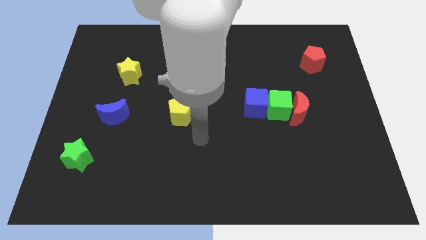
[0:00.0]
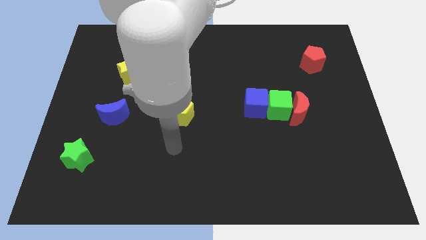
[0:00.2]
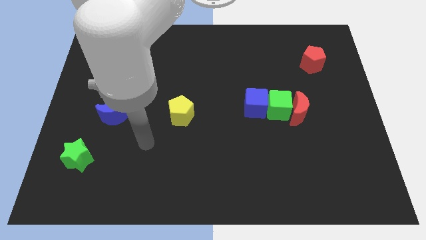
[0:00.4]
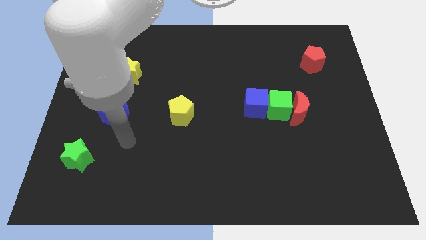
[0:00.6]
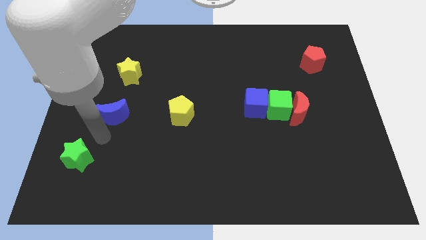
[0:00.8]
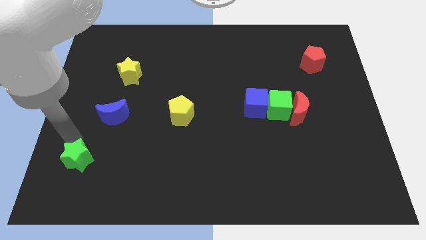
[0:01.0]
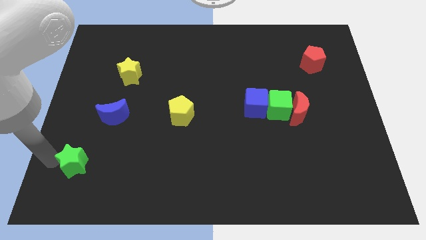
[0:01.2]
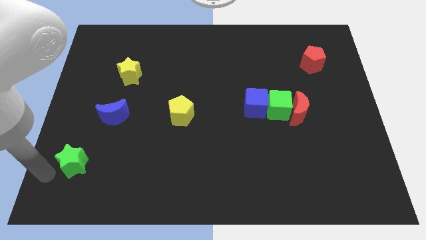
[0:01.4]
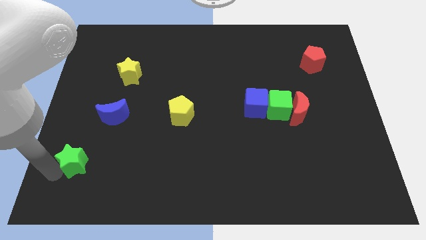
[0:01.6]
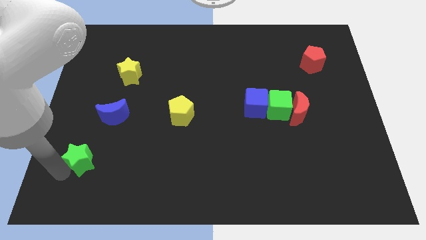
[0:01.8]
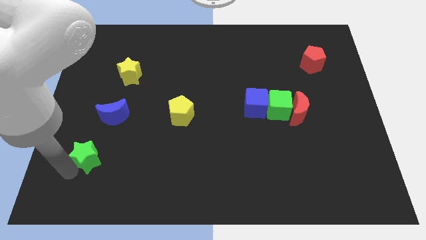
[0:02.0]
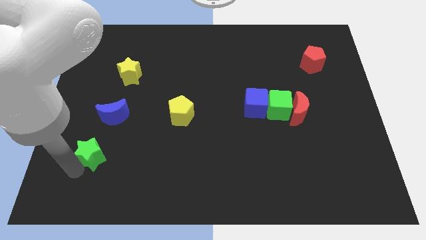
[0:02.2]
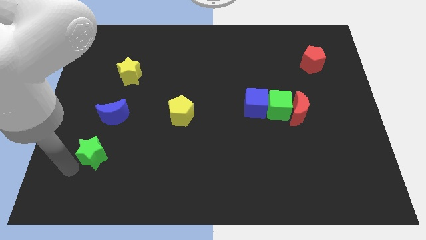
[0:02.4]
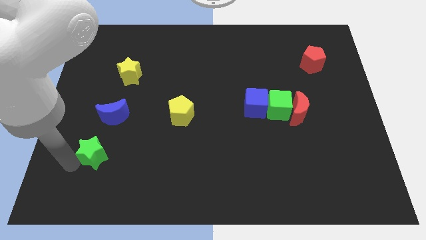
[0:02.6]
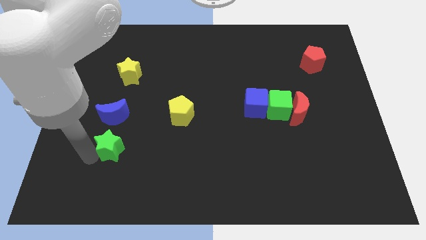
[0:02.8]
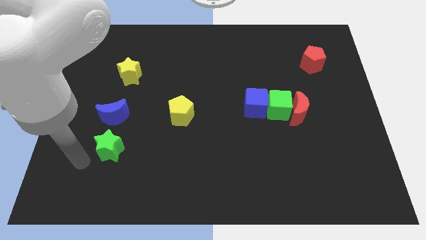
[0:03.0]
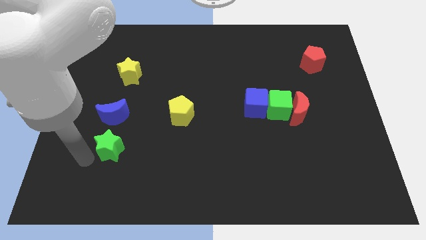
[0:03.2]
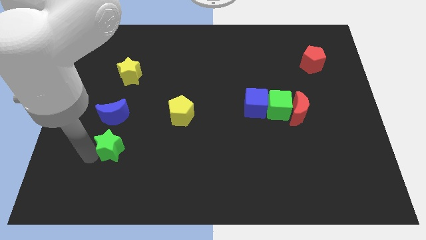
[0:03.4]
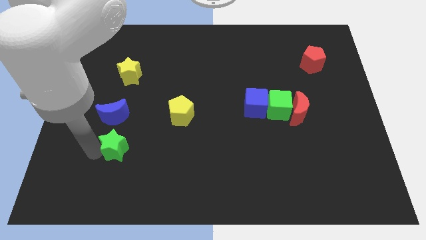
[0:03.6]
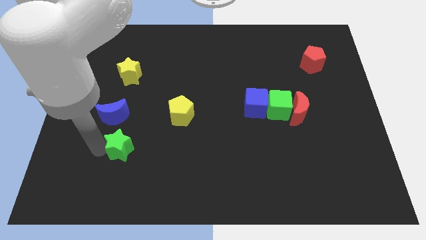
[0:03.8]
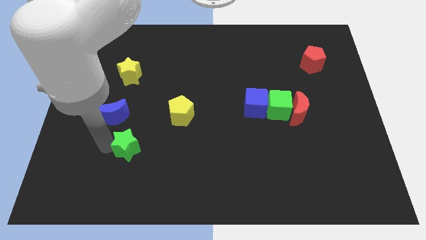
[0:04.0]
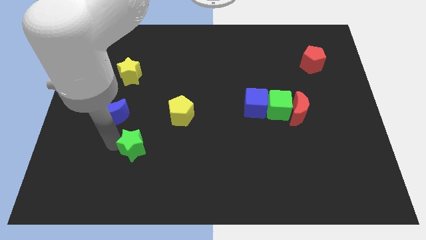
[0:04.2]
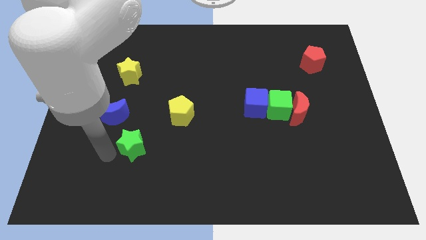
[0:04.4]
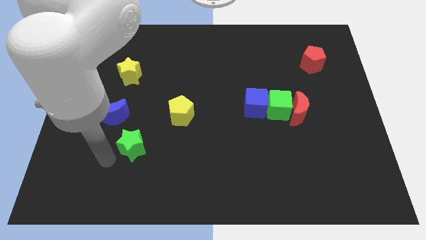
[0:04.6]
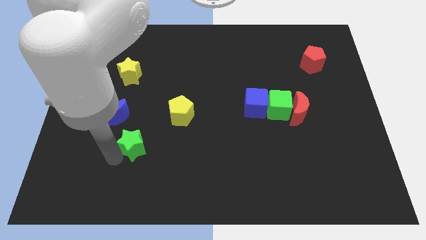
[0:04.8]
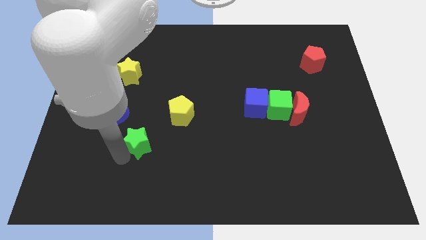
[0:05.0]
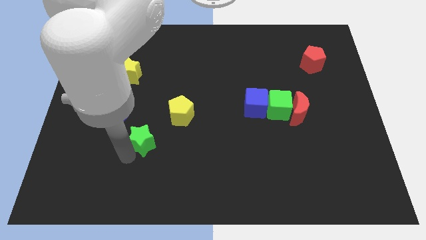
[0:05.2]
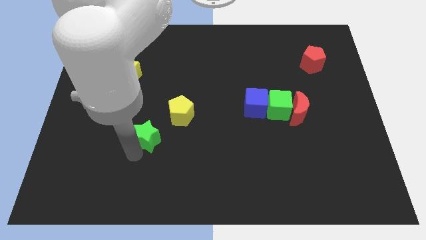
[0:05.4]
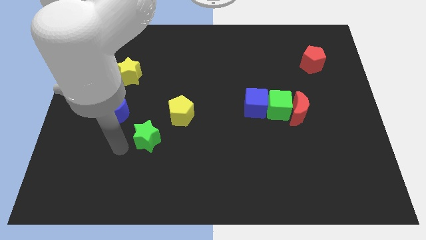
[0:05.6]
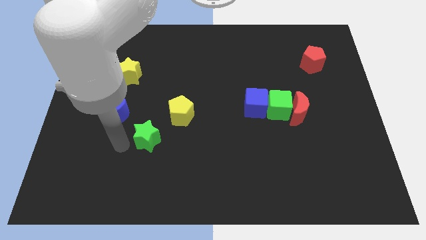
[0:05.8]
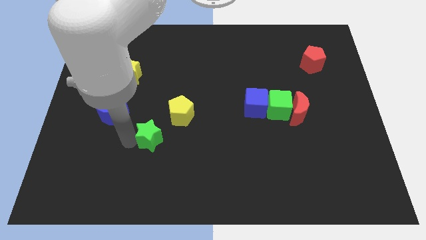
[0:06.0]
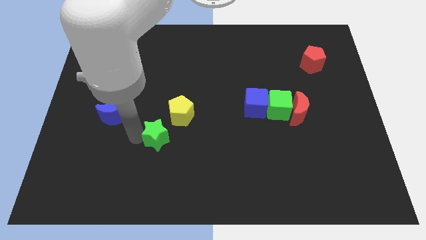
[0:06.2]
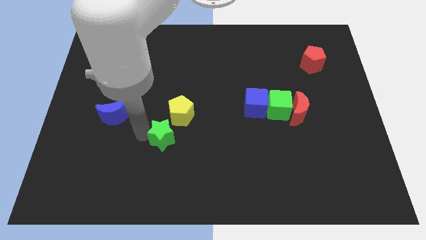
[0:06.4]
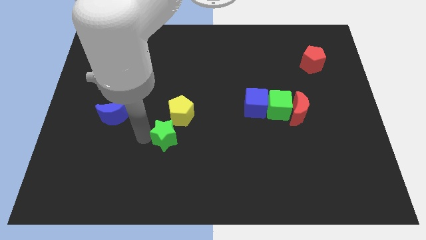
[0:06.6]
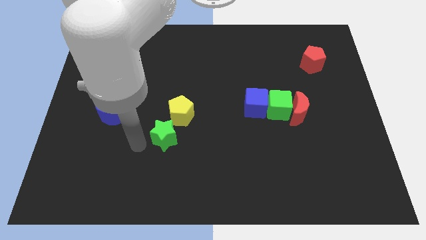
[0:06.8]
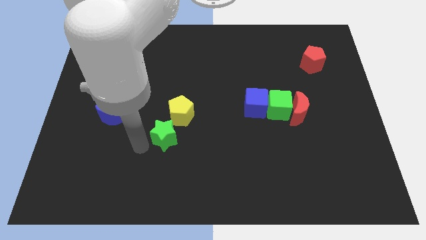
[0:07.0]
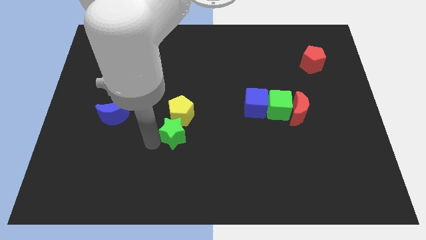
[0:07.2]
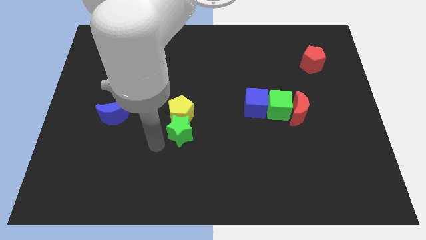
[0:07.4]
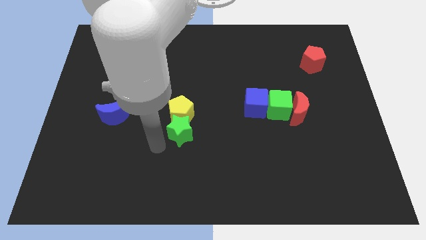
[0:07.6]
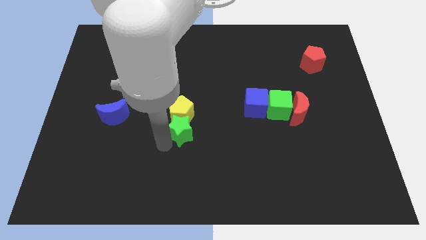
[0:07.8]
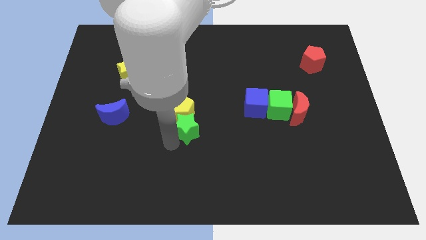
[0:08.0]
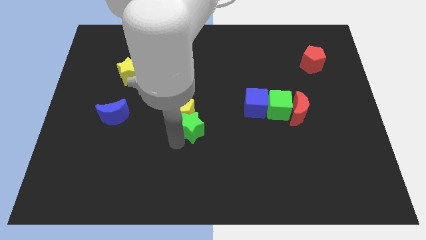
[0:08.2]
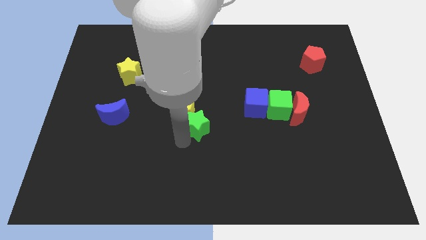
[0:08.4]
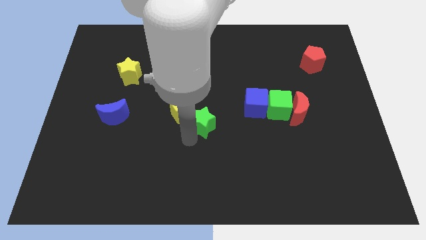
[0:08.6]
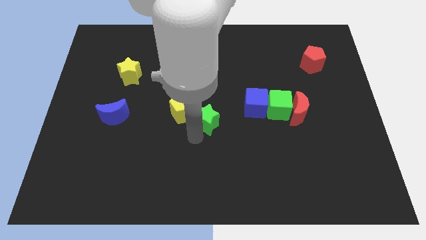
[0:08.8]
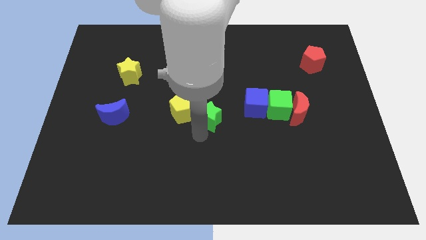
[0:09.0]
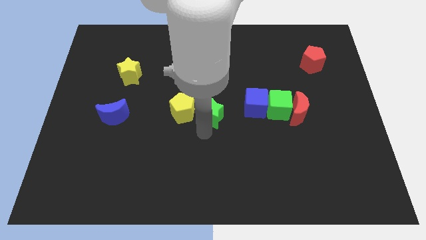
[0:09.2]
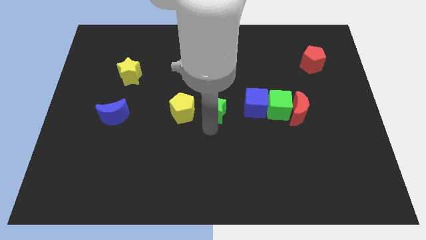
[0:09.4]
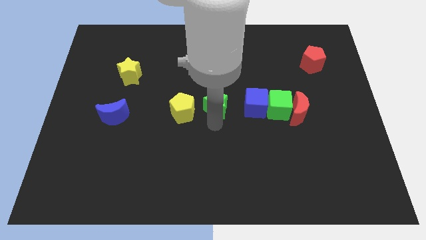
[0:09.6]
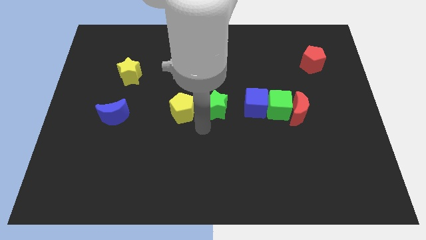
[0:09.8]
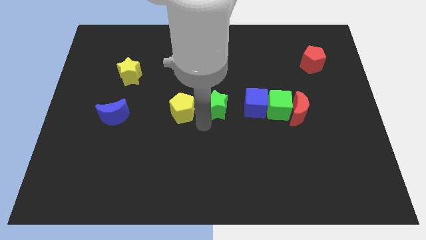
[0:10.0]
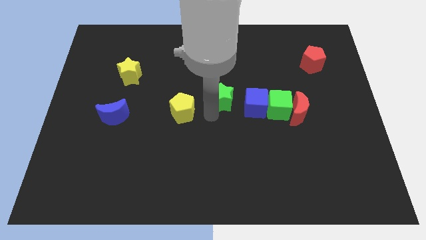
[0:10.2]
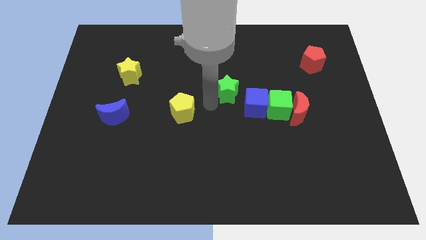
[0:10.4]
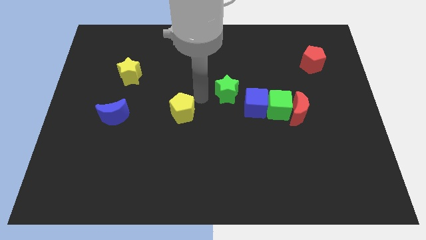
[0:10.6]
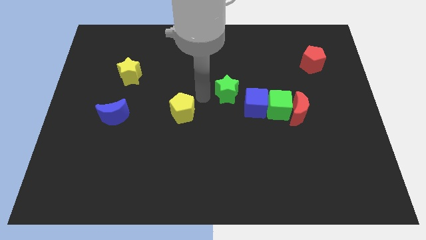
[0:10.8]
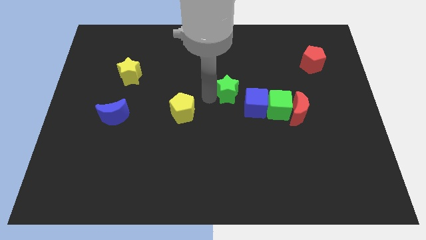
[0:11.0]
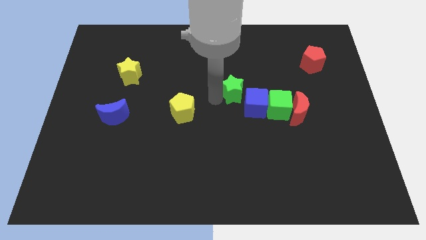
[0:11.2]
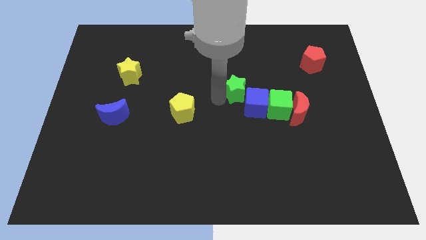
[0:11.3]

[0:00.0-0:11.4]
slide the green star diagonally up and to the left of the green cube

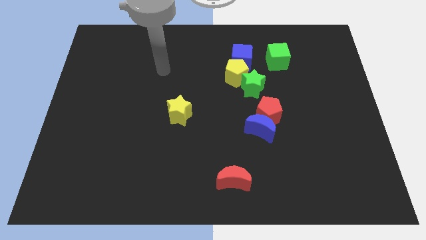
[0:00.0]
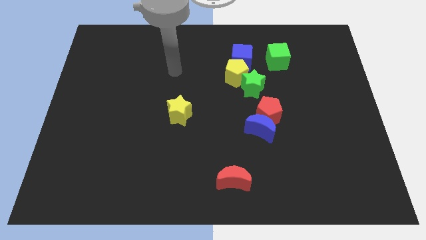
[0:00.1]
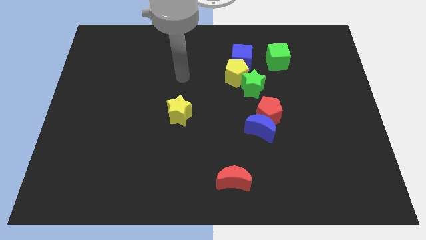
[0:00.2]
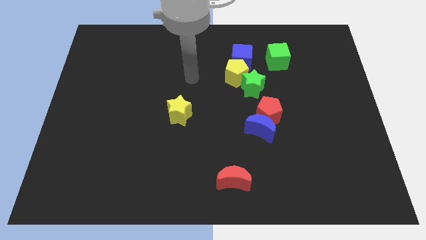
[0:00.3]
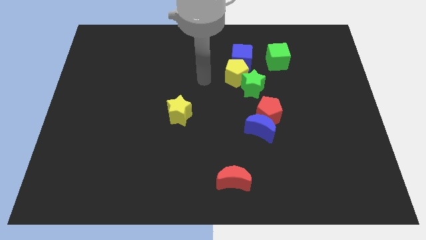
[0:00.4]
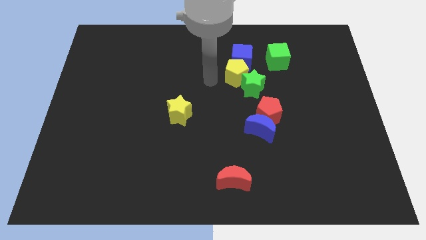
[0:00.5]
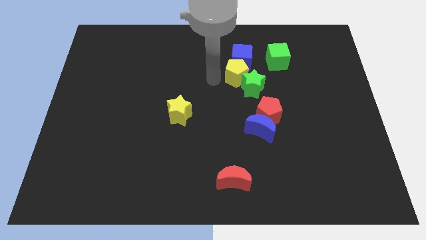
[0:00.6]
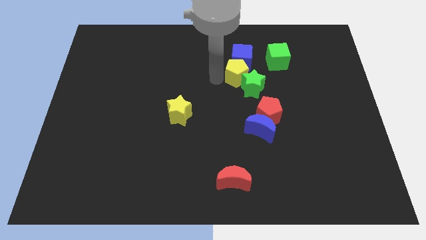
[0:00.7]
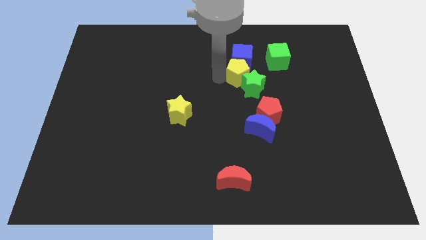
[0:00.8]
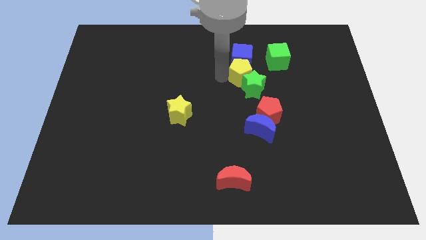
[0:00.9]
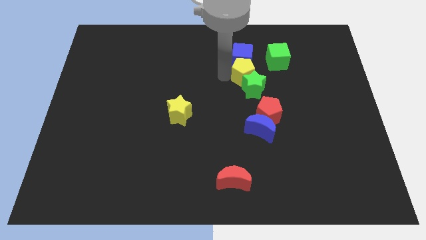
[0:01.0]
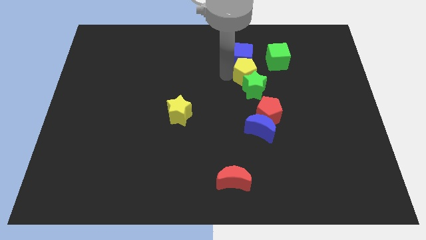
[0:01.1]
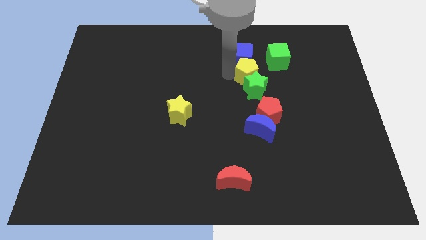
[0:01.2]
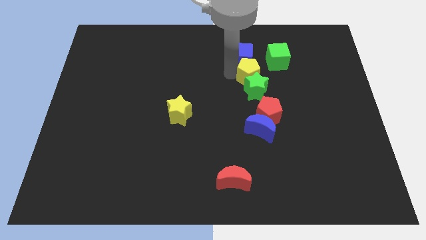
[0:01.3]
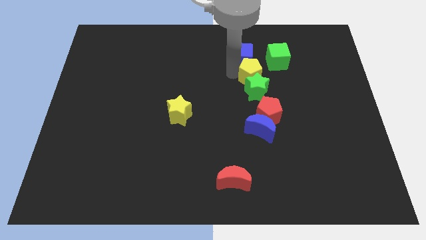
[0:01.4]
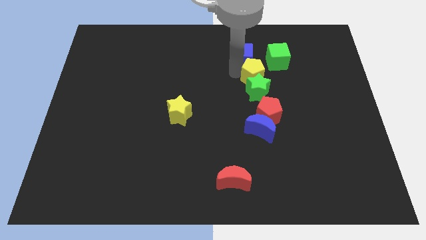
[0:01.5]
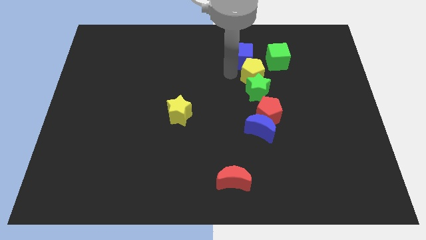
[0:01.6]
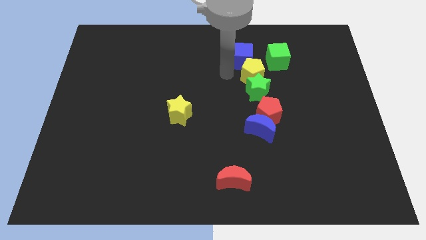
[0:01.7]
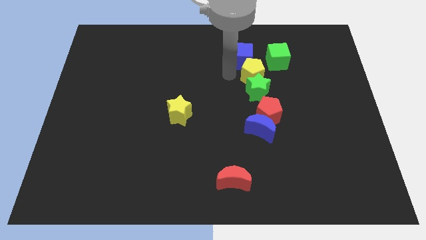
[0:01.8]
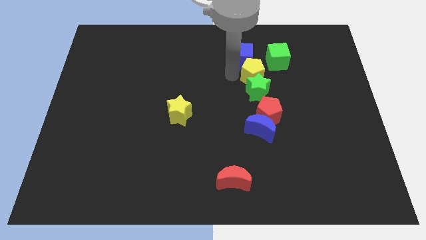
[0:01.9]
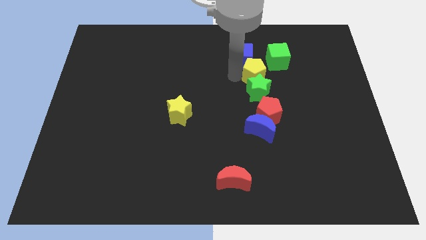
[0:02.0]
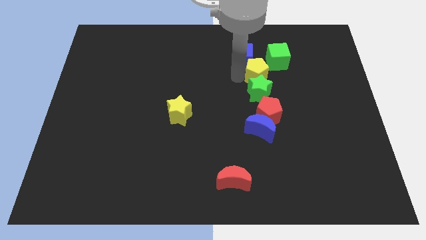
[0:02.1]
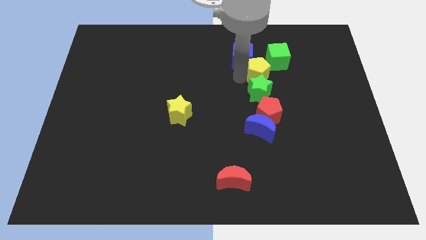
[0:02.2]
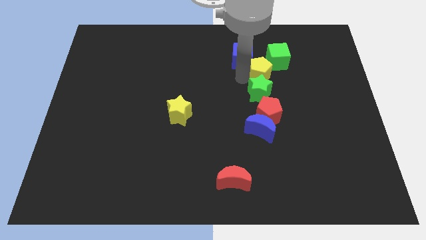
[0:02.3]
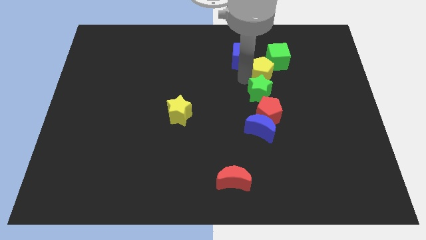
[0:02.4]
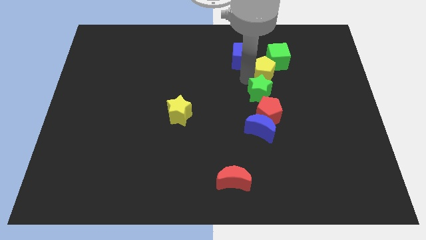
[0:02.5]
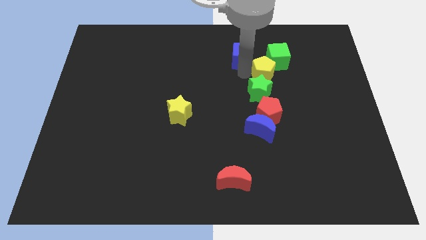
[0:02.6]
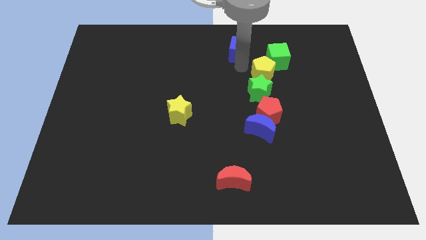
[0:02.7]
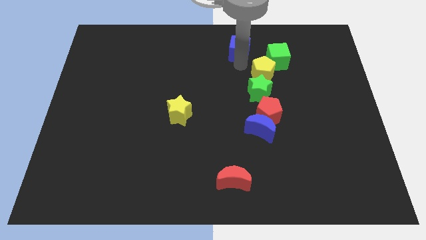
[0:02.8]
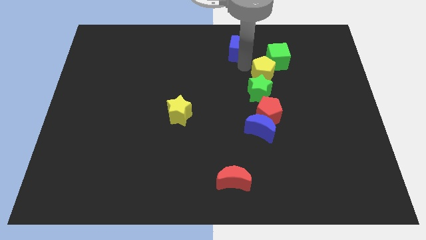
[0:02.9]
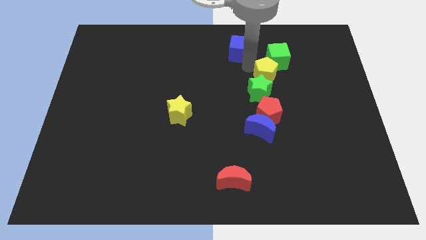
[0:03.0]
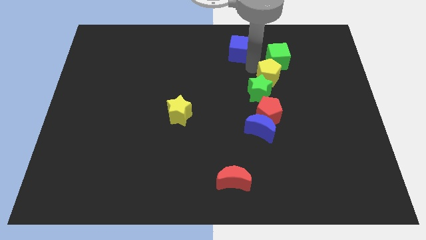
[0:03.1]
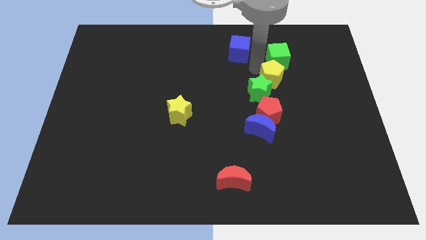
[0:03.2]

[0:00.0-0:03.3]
slide the yellow pentagon just right of the green star
